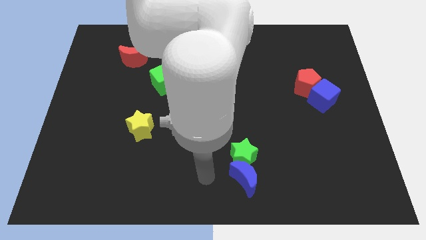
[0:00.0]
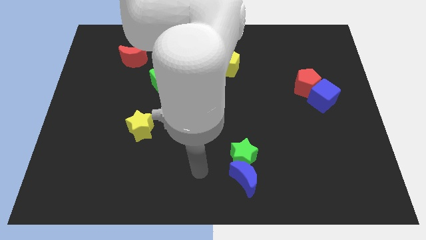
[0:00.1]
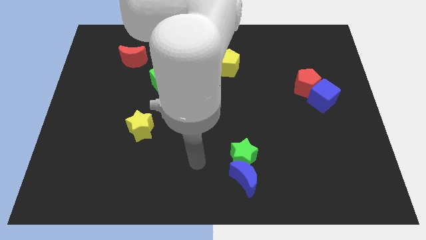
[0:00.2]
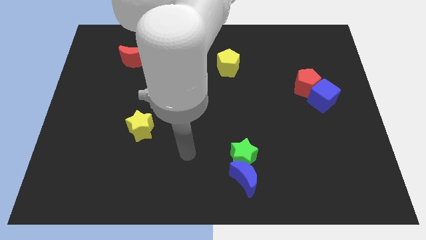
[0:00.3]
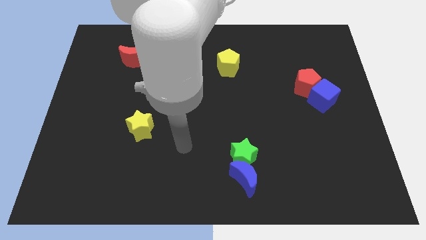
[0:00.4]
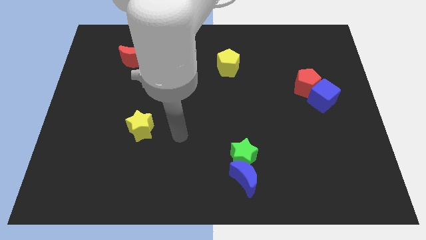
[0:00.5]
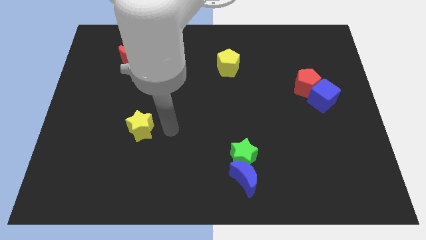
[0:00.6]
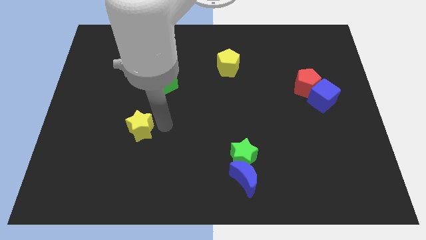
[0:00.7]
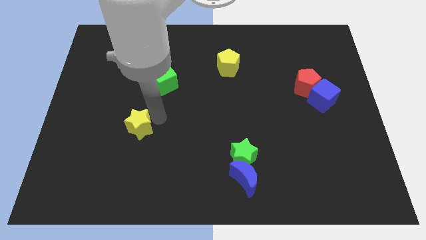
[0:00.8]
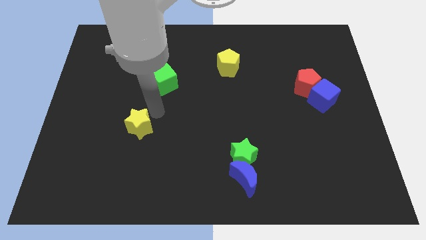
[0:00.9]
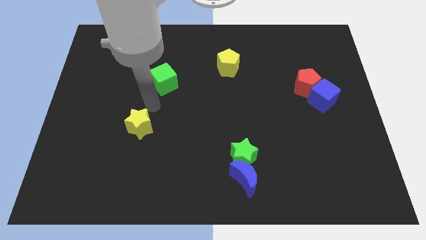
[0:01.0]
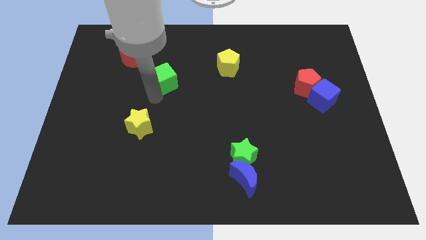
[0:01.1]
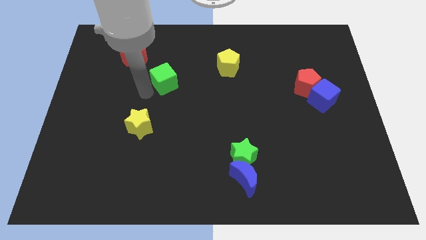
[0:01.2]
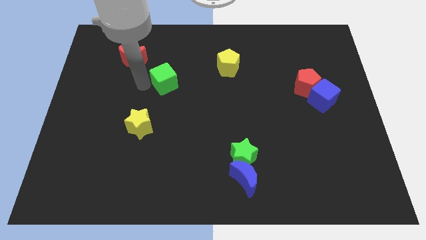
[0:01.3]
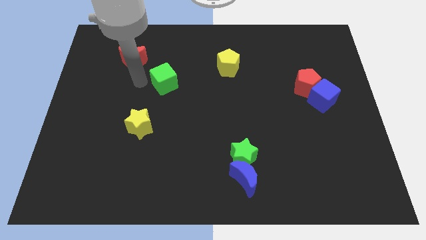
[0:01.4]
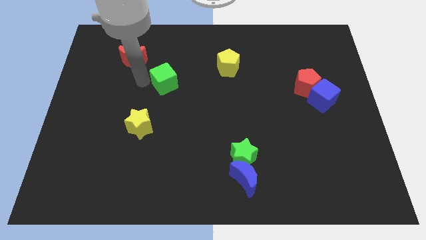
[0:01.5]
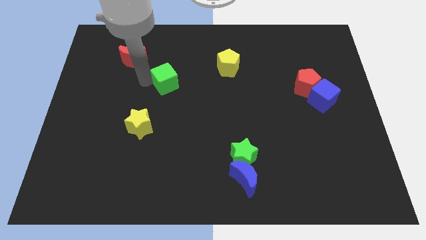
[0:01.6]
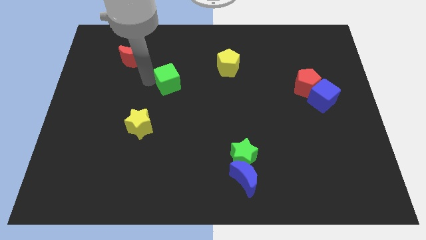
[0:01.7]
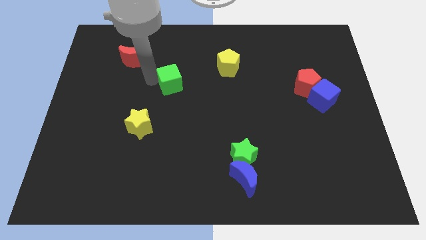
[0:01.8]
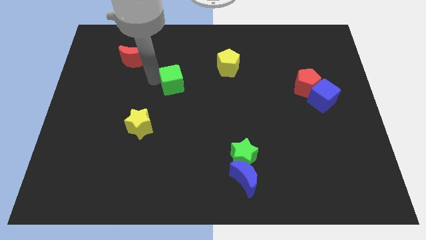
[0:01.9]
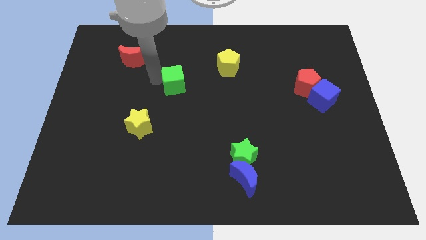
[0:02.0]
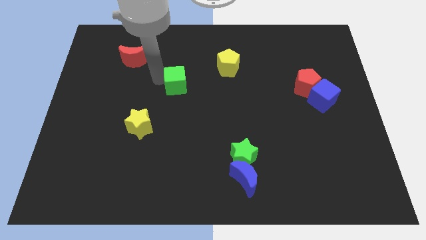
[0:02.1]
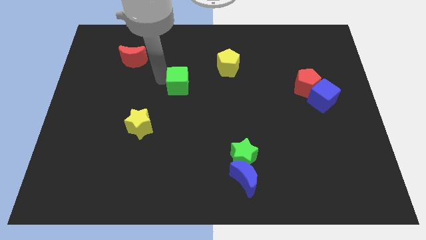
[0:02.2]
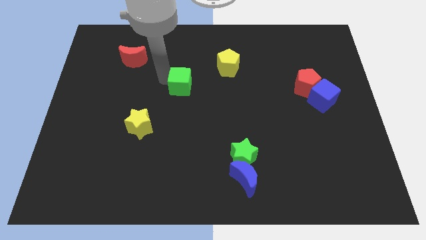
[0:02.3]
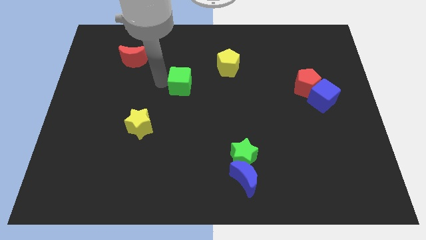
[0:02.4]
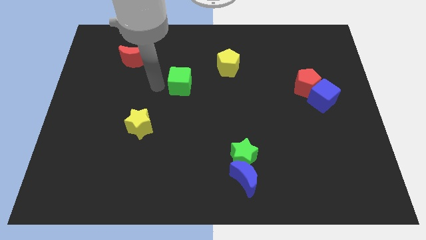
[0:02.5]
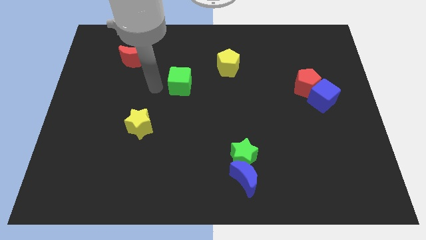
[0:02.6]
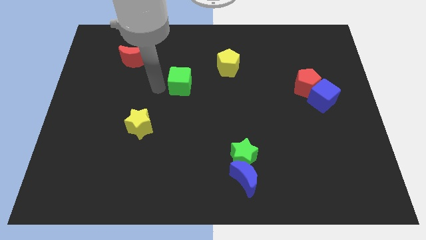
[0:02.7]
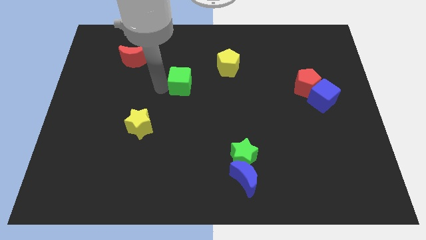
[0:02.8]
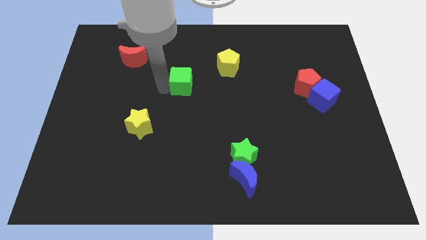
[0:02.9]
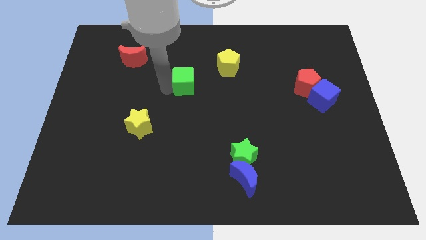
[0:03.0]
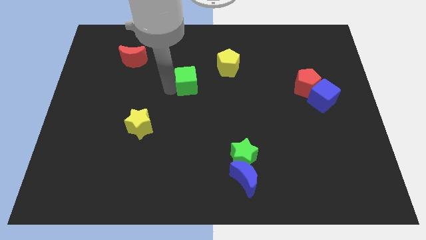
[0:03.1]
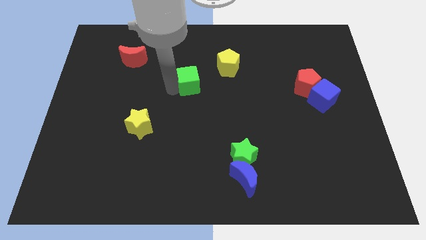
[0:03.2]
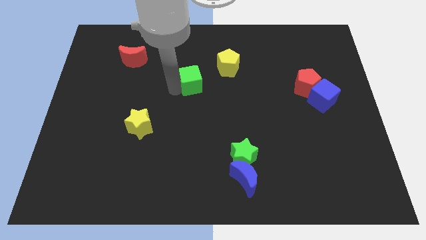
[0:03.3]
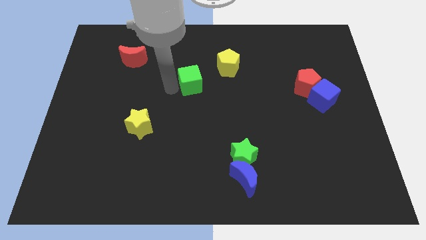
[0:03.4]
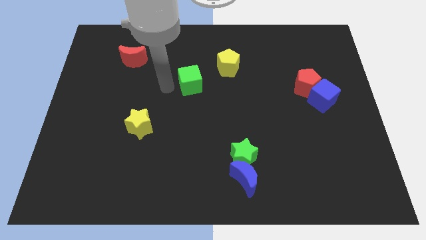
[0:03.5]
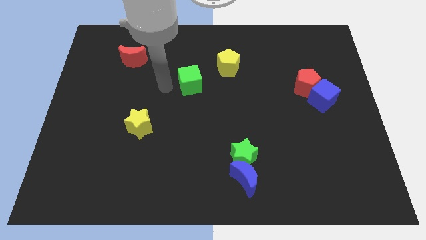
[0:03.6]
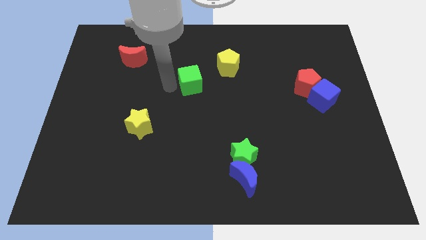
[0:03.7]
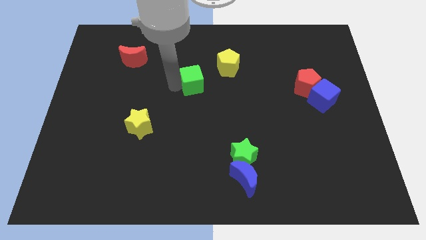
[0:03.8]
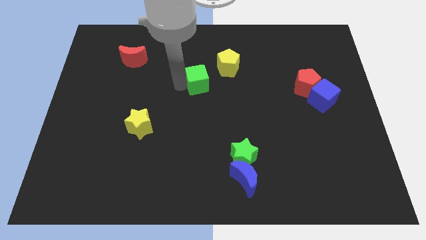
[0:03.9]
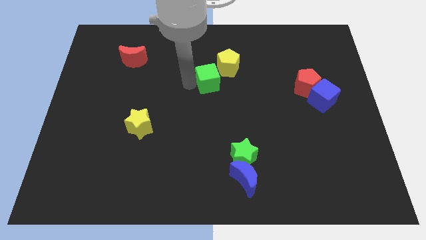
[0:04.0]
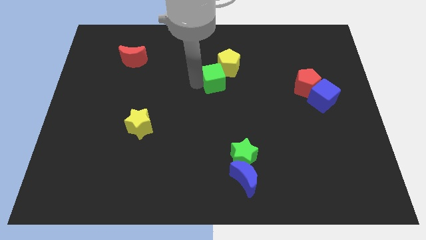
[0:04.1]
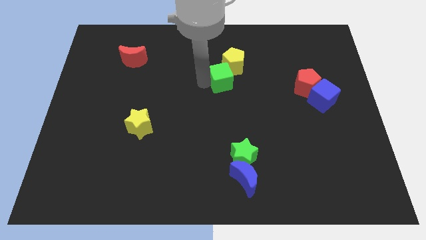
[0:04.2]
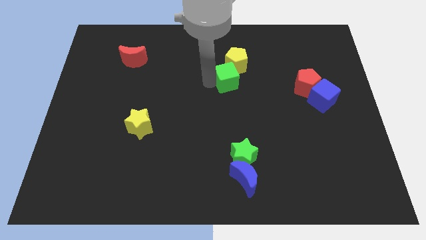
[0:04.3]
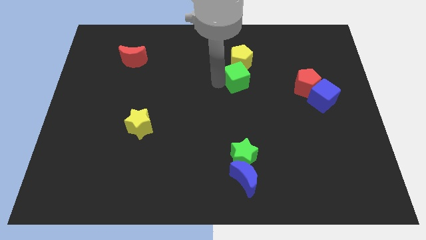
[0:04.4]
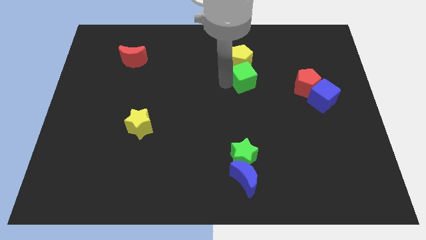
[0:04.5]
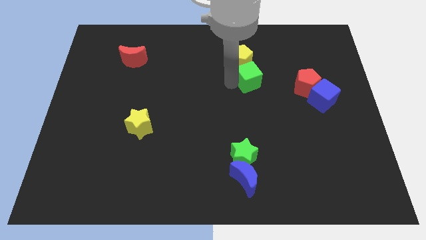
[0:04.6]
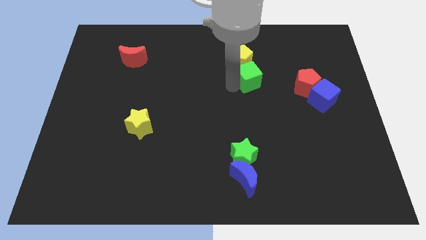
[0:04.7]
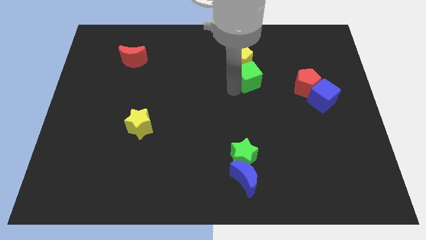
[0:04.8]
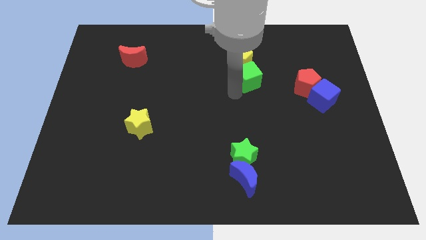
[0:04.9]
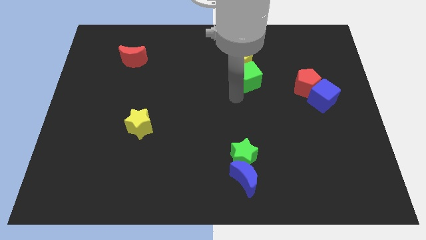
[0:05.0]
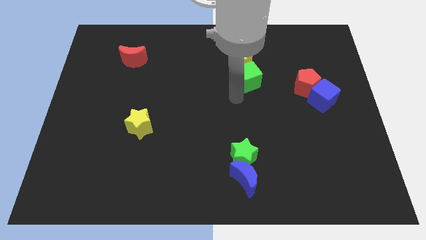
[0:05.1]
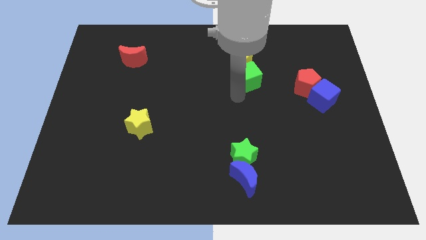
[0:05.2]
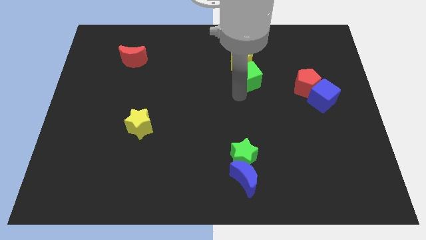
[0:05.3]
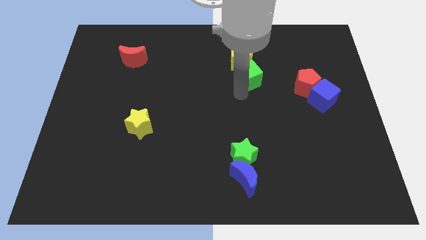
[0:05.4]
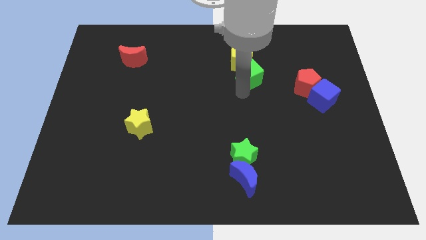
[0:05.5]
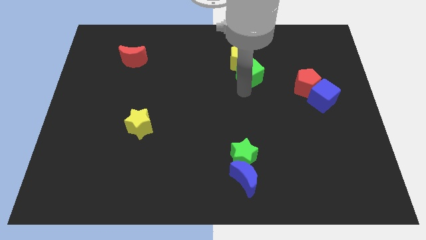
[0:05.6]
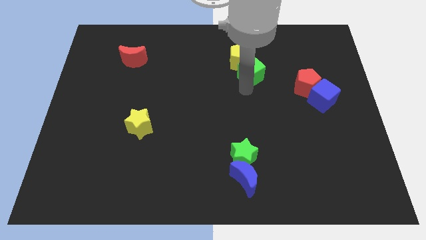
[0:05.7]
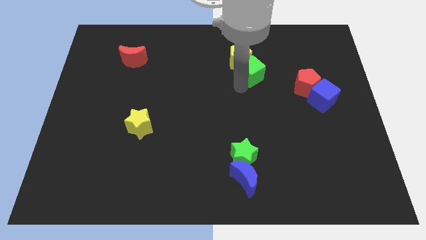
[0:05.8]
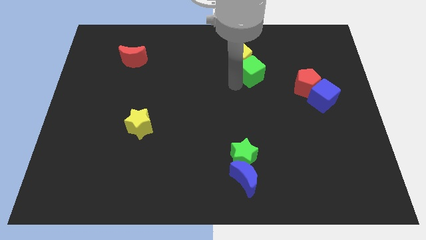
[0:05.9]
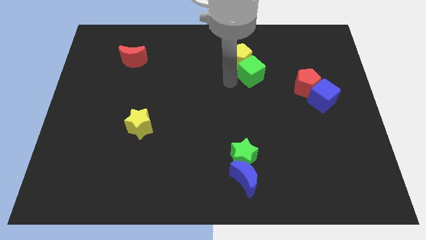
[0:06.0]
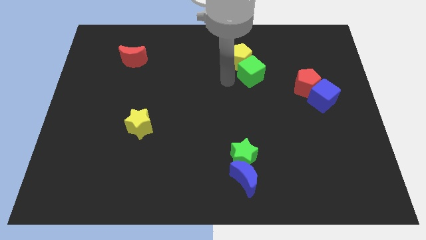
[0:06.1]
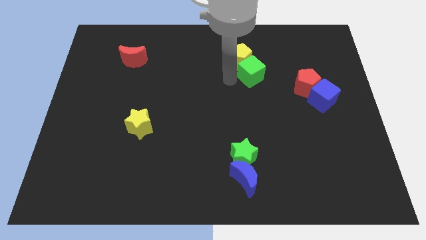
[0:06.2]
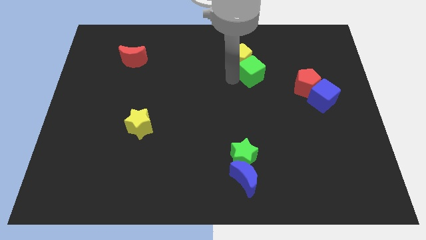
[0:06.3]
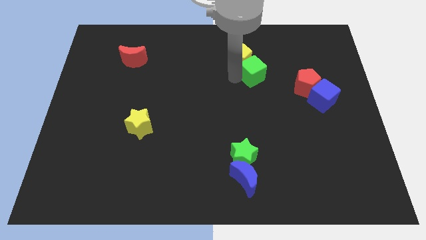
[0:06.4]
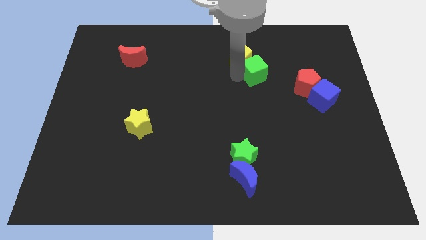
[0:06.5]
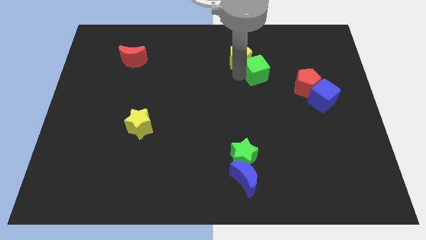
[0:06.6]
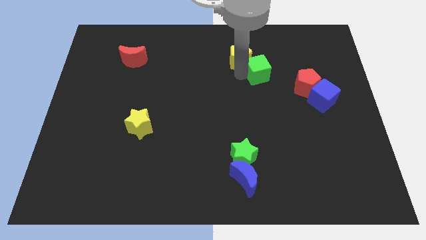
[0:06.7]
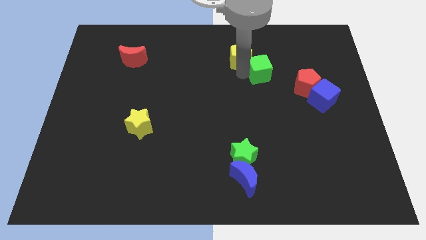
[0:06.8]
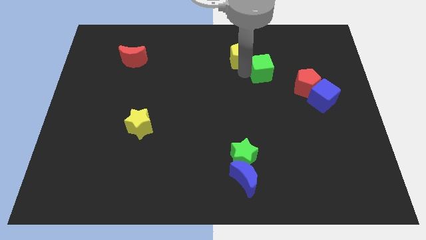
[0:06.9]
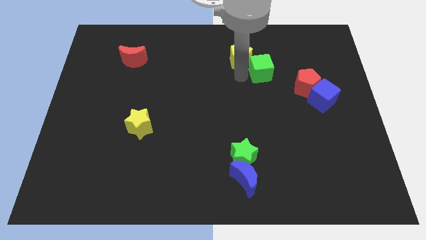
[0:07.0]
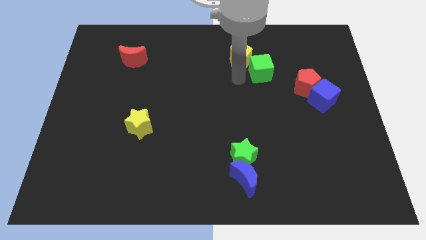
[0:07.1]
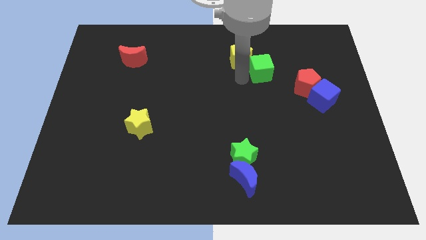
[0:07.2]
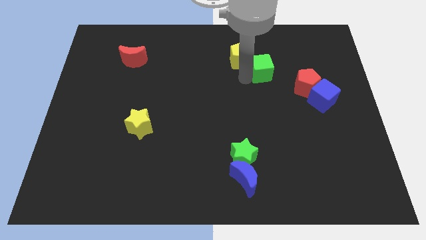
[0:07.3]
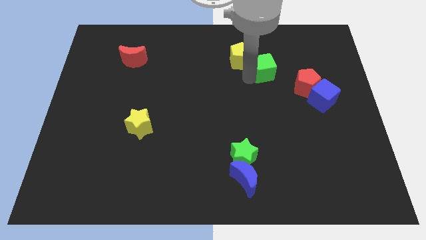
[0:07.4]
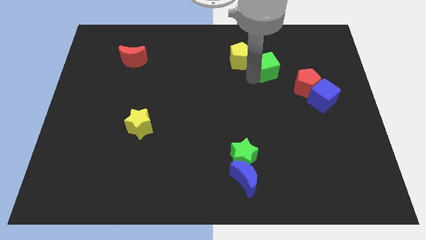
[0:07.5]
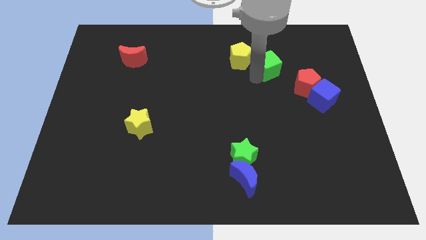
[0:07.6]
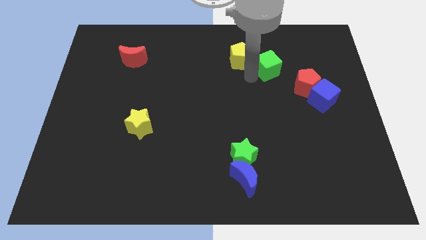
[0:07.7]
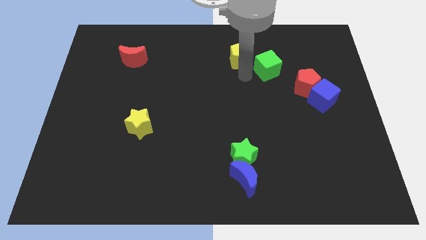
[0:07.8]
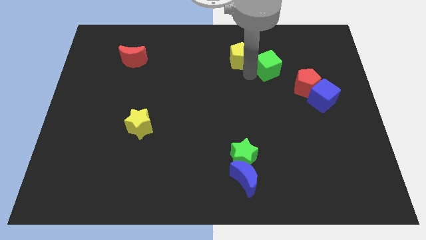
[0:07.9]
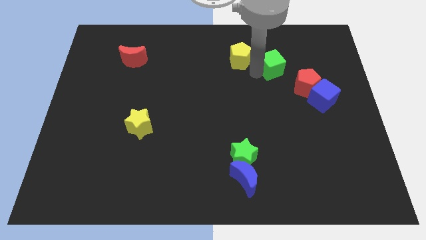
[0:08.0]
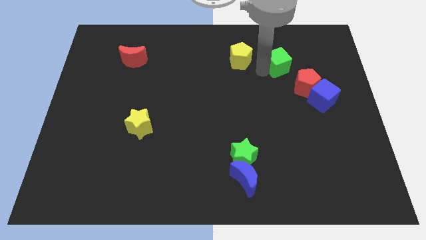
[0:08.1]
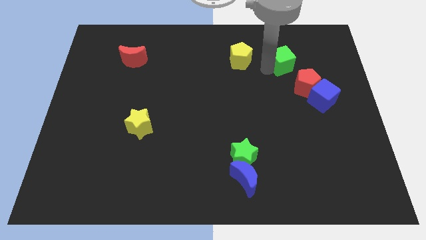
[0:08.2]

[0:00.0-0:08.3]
push the green cube to the top of the red pentagon
